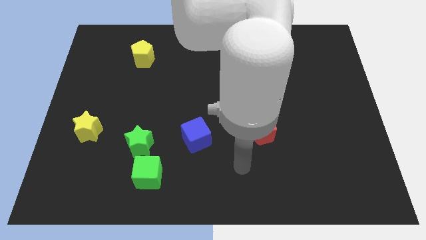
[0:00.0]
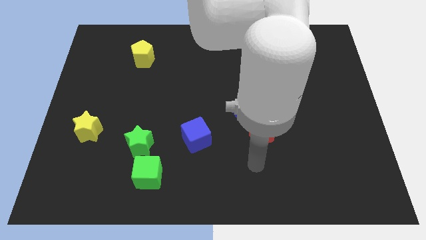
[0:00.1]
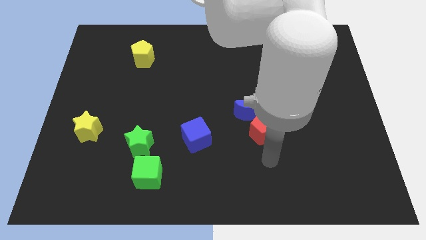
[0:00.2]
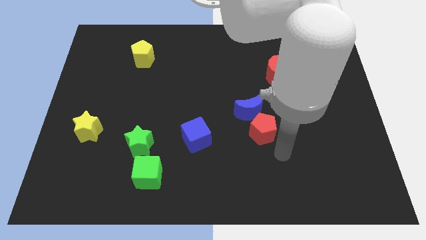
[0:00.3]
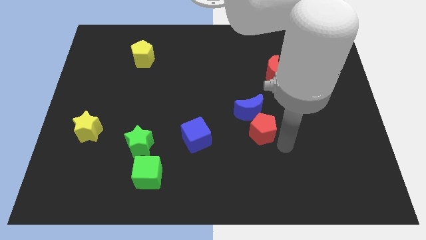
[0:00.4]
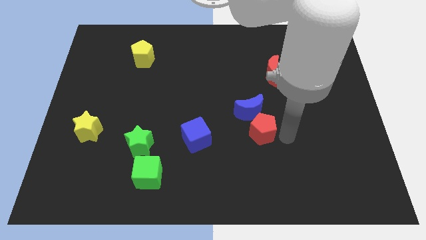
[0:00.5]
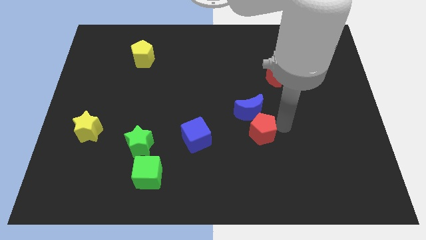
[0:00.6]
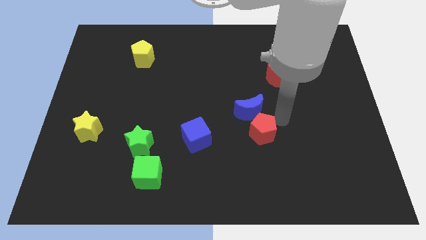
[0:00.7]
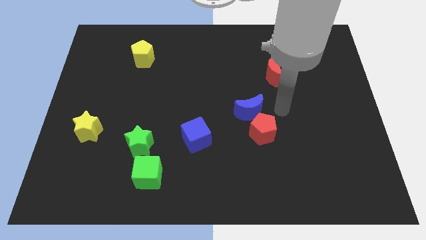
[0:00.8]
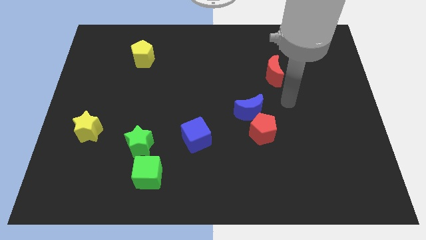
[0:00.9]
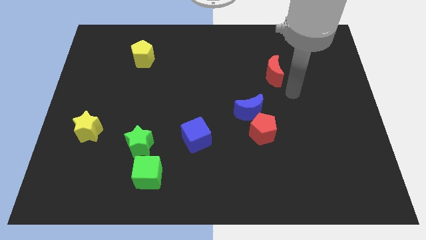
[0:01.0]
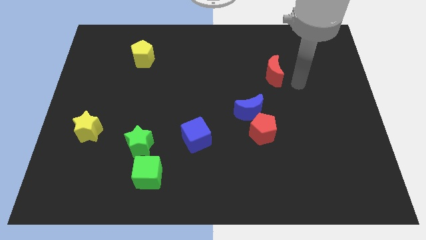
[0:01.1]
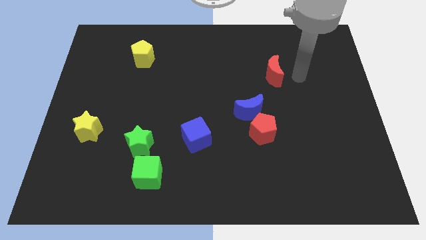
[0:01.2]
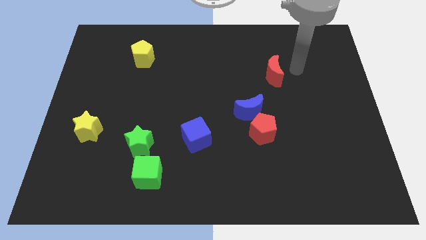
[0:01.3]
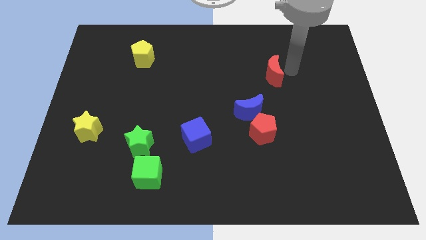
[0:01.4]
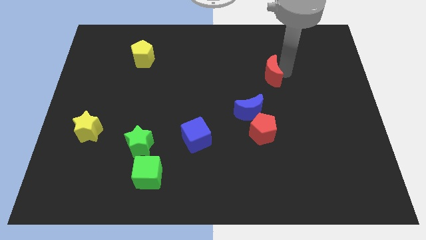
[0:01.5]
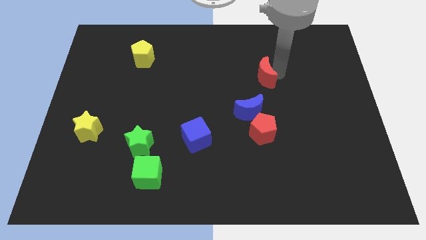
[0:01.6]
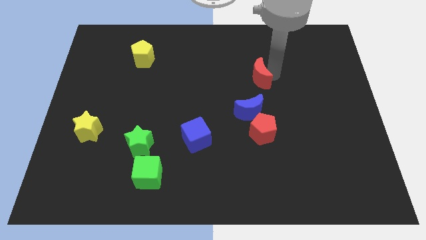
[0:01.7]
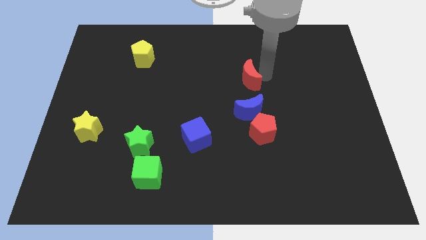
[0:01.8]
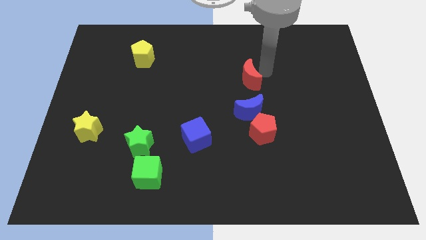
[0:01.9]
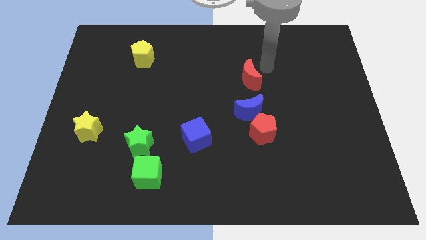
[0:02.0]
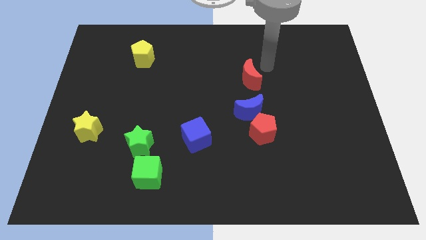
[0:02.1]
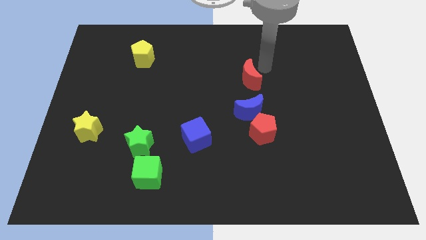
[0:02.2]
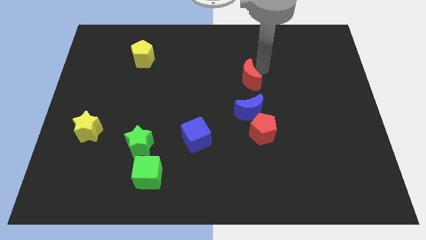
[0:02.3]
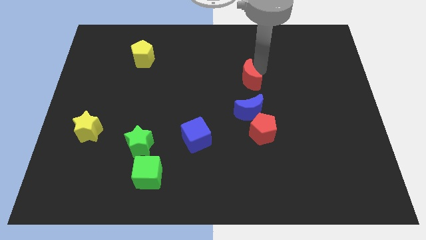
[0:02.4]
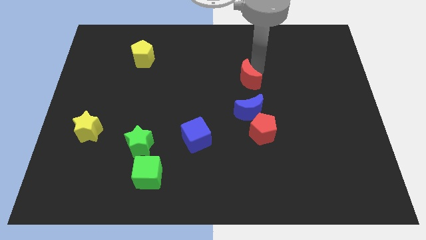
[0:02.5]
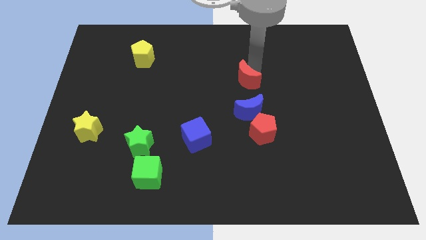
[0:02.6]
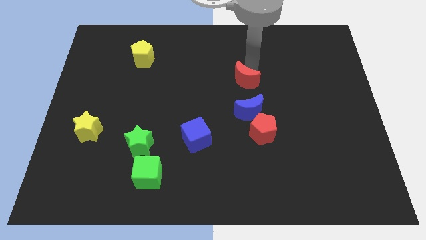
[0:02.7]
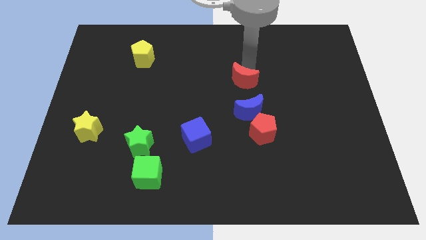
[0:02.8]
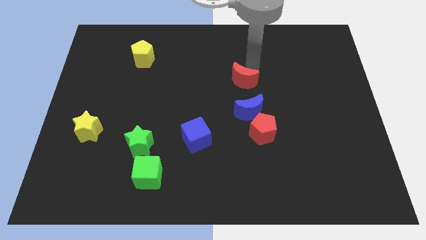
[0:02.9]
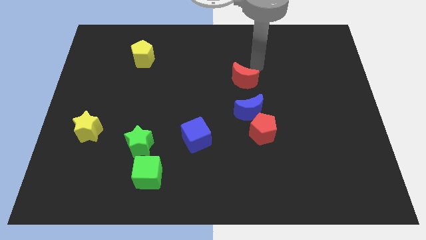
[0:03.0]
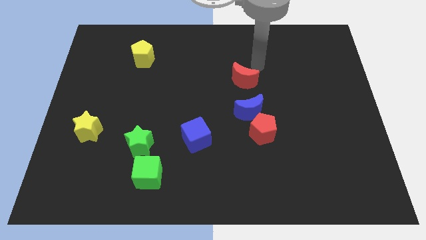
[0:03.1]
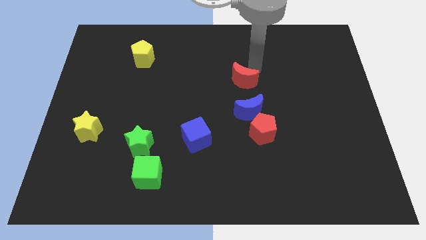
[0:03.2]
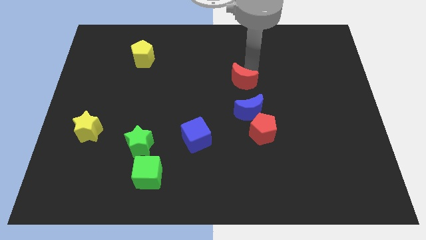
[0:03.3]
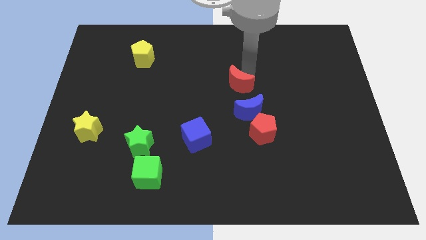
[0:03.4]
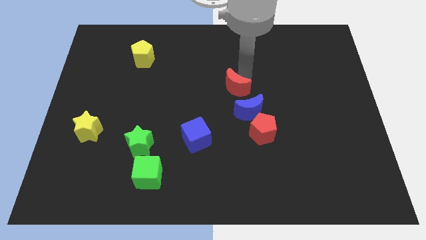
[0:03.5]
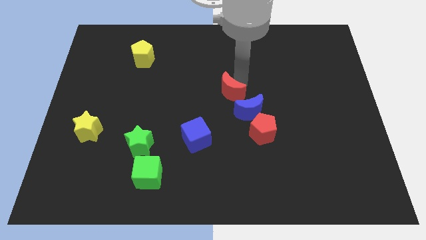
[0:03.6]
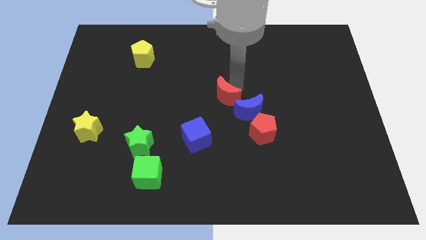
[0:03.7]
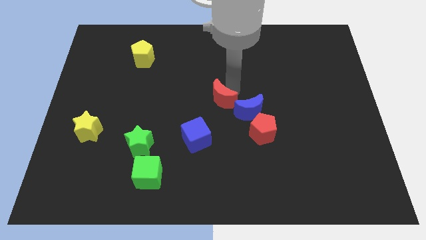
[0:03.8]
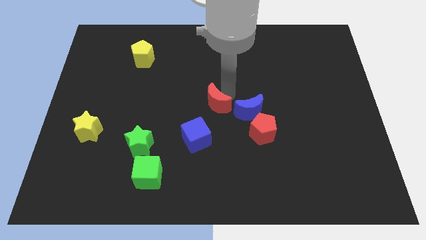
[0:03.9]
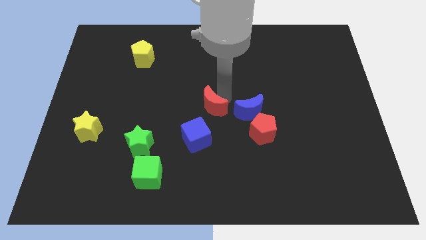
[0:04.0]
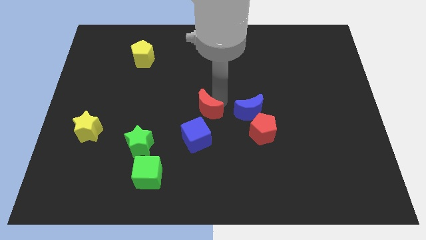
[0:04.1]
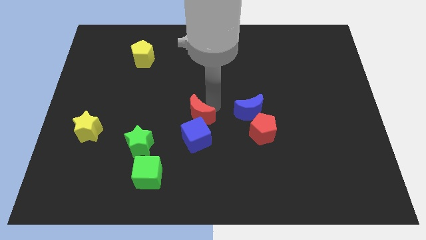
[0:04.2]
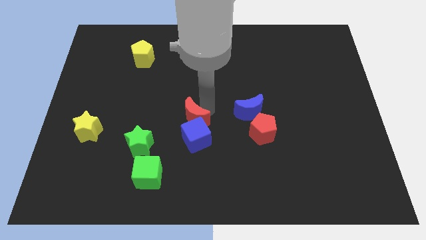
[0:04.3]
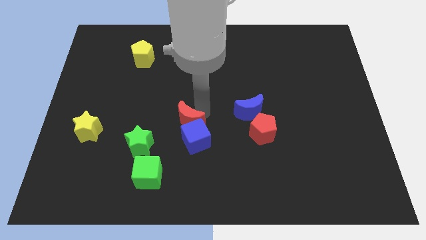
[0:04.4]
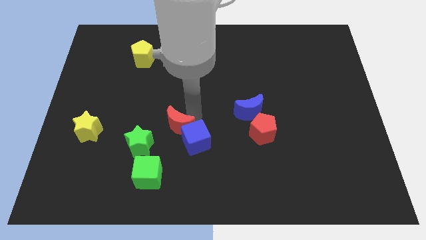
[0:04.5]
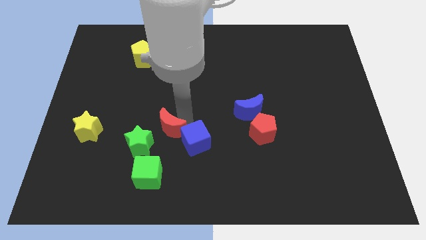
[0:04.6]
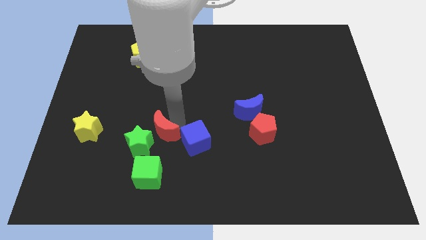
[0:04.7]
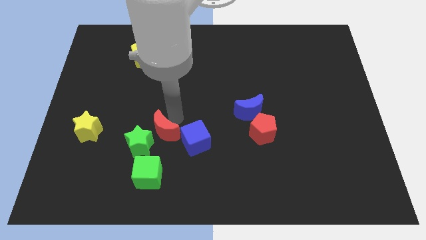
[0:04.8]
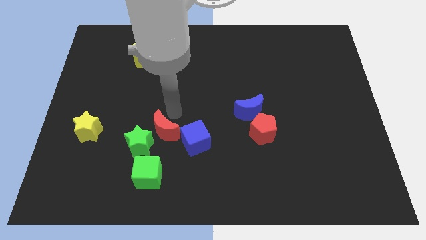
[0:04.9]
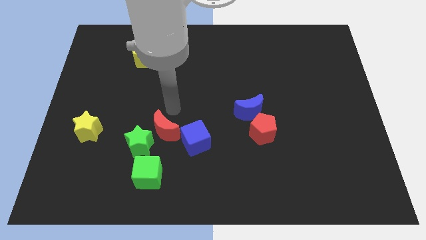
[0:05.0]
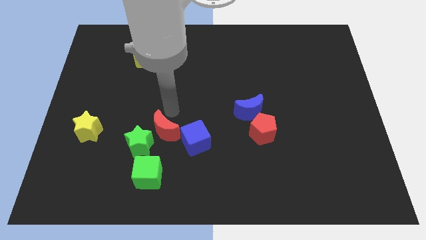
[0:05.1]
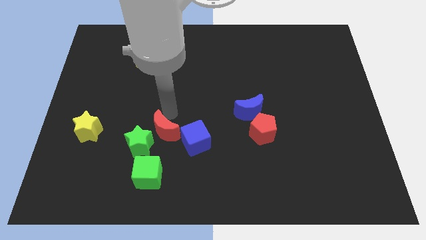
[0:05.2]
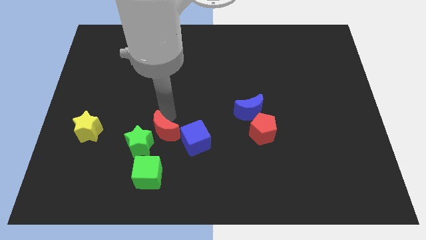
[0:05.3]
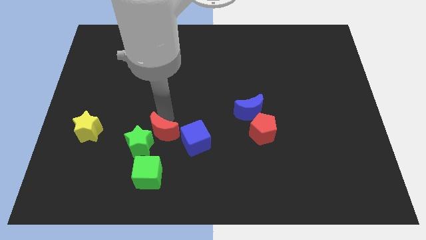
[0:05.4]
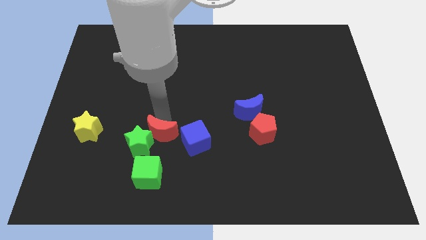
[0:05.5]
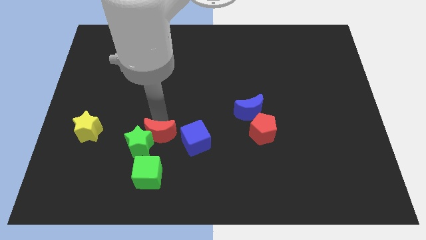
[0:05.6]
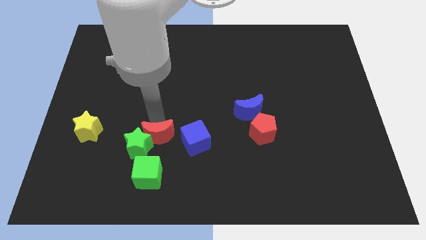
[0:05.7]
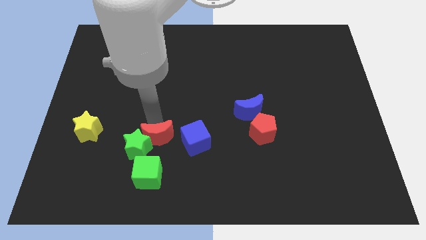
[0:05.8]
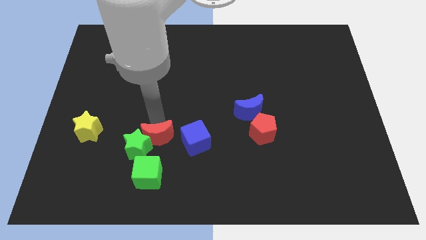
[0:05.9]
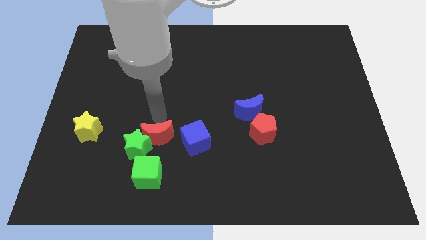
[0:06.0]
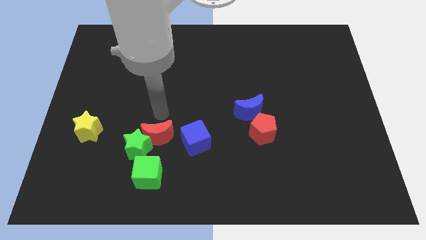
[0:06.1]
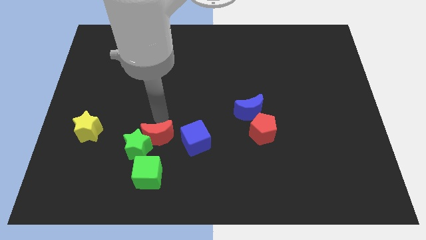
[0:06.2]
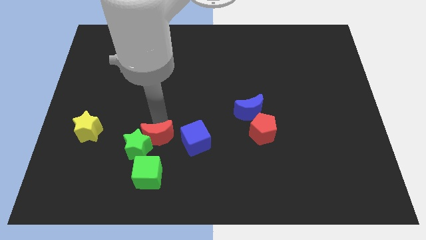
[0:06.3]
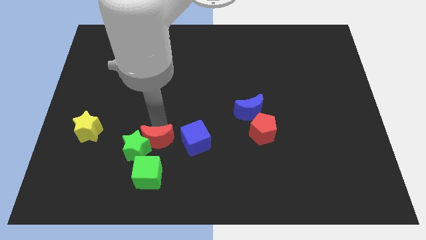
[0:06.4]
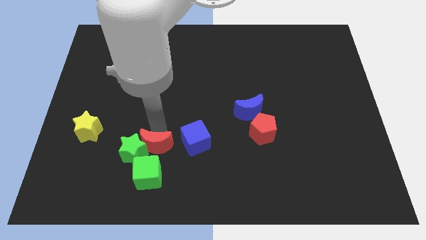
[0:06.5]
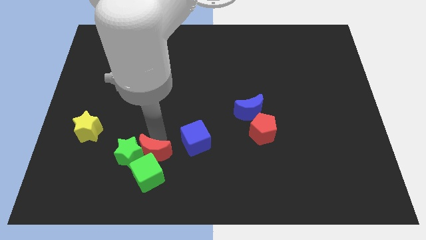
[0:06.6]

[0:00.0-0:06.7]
push the red moon next to the green cube
